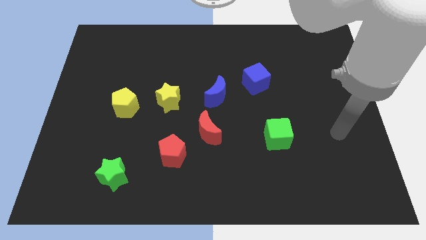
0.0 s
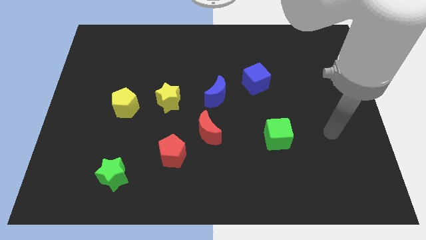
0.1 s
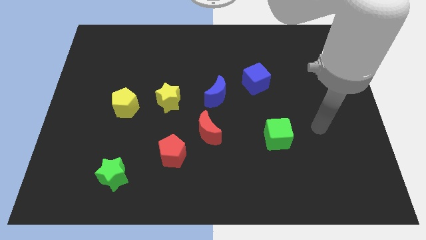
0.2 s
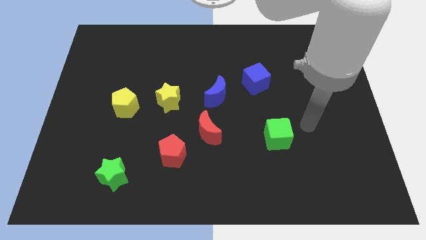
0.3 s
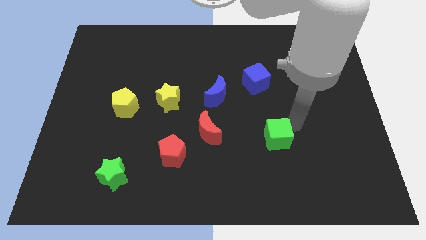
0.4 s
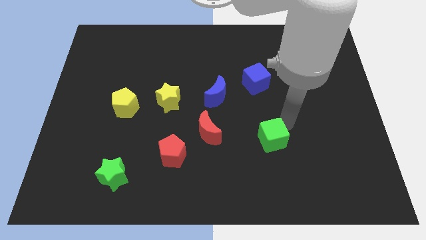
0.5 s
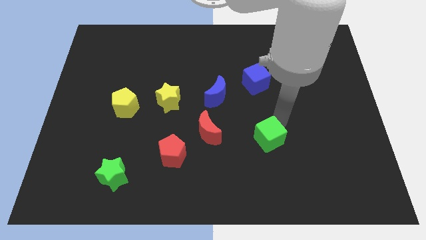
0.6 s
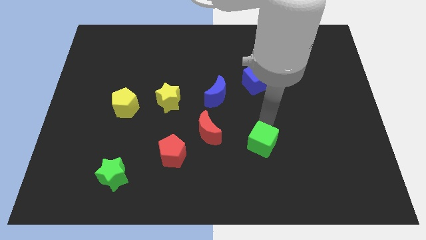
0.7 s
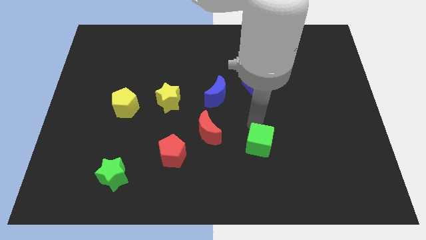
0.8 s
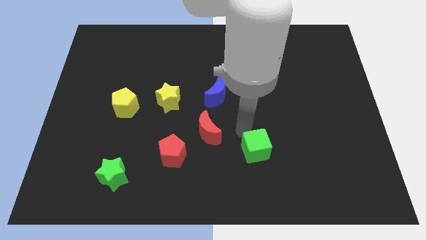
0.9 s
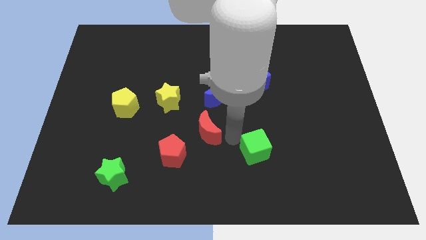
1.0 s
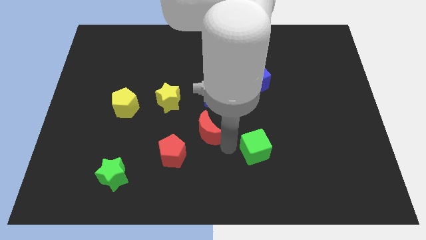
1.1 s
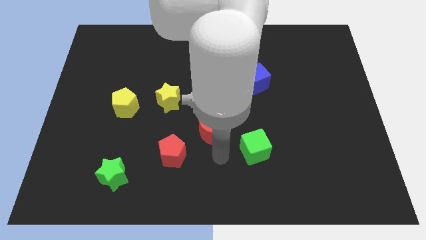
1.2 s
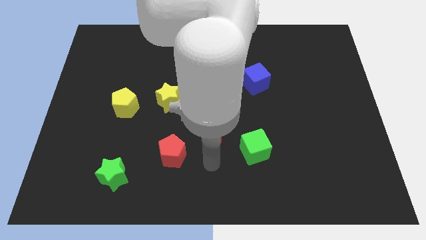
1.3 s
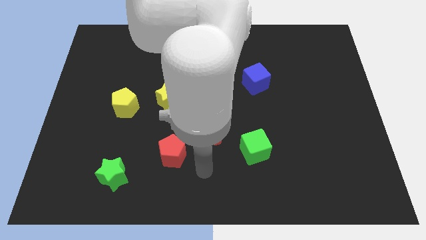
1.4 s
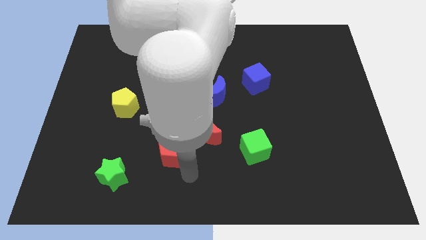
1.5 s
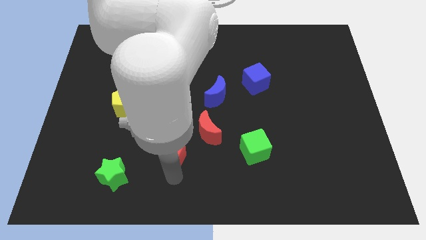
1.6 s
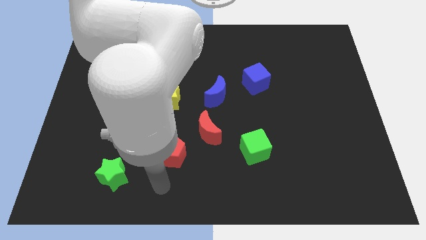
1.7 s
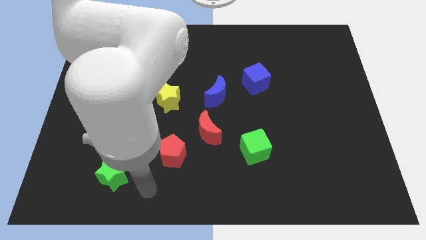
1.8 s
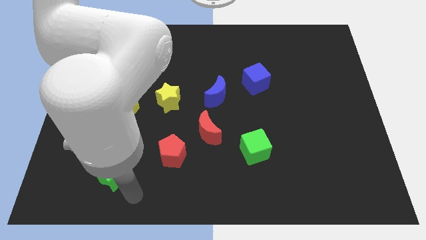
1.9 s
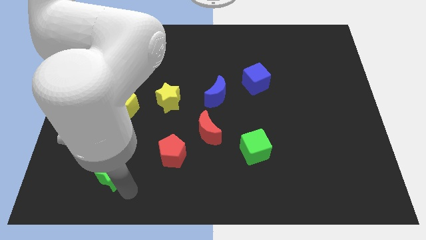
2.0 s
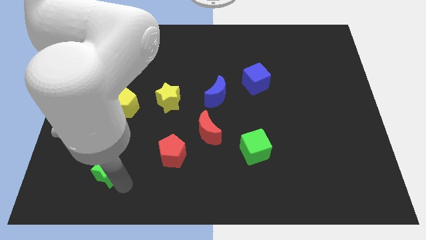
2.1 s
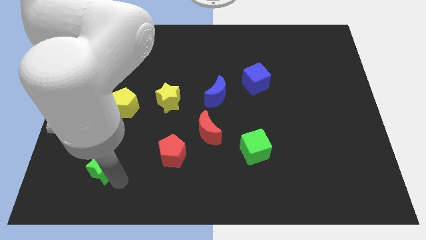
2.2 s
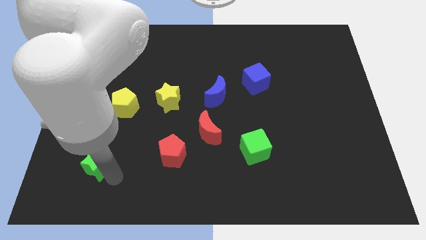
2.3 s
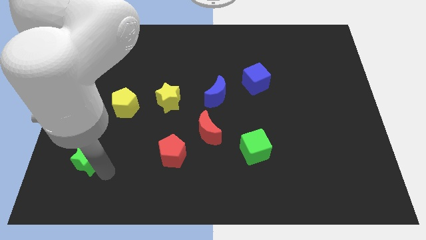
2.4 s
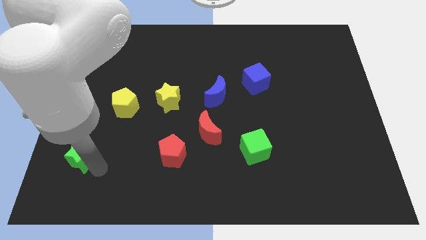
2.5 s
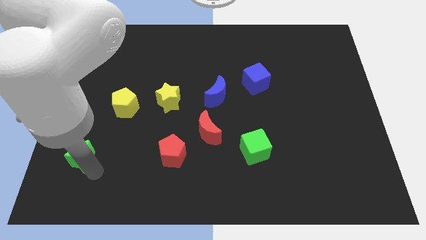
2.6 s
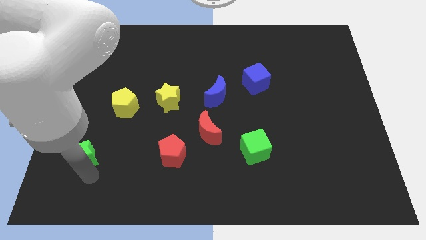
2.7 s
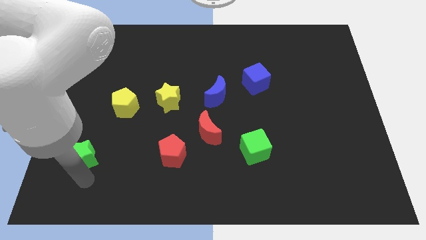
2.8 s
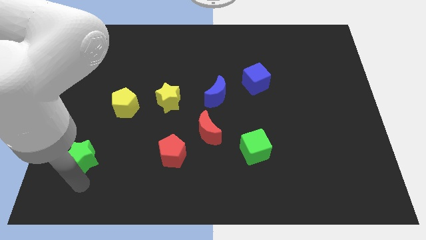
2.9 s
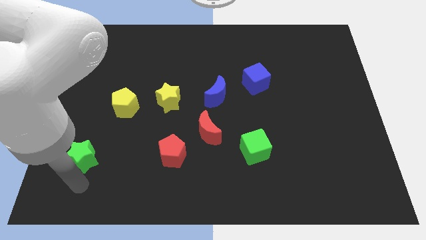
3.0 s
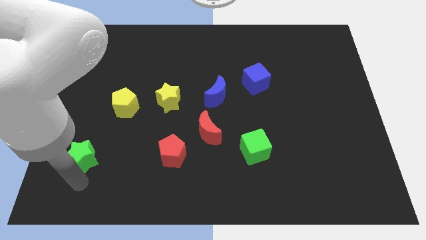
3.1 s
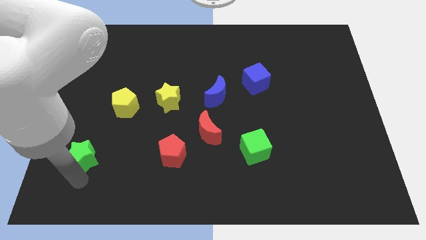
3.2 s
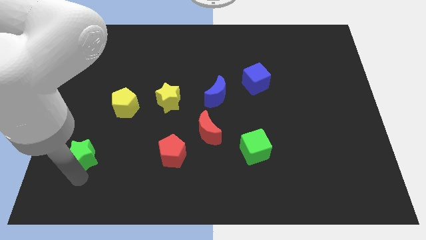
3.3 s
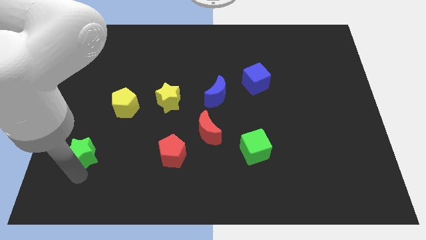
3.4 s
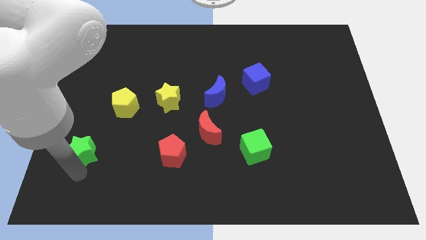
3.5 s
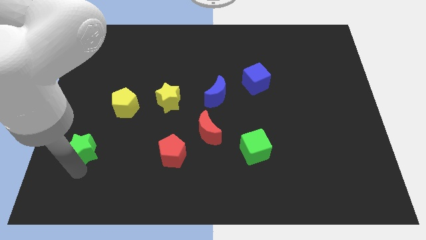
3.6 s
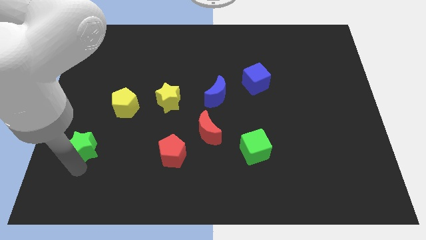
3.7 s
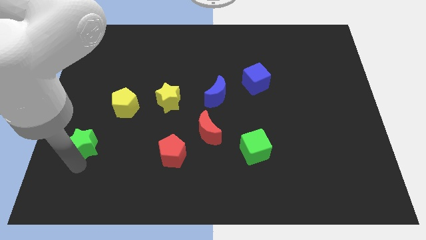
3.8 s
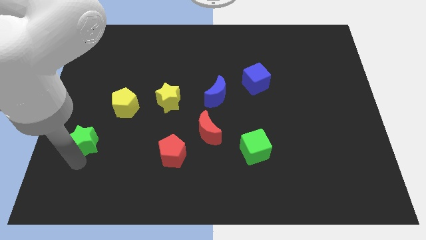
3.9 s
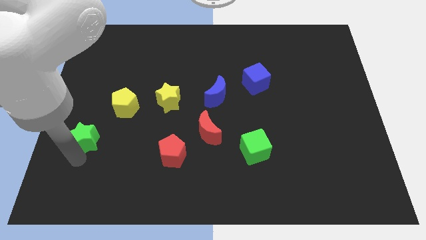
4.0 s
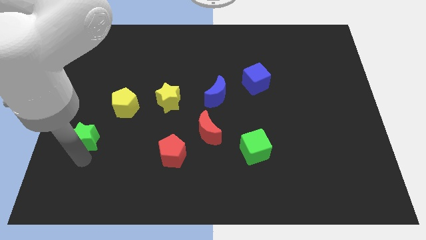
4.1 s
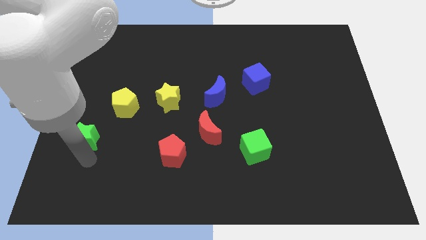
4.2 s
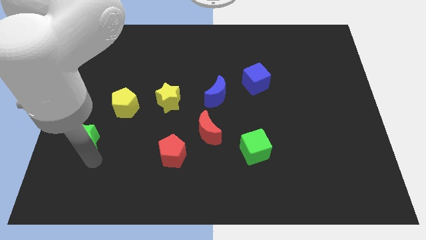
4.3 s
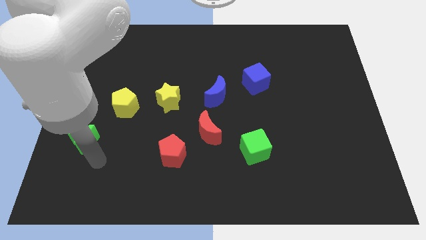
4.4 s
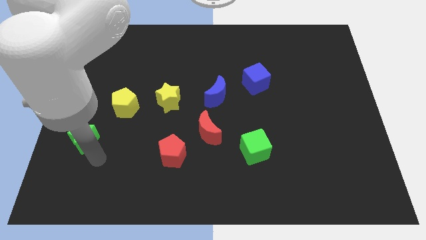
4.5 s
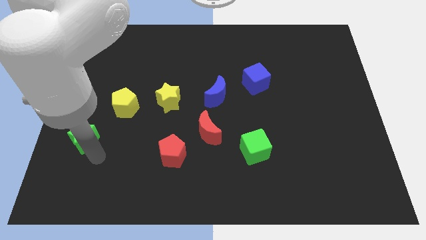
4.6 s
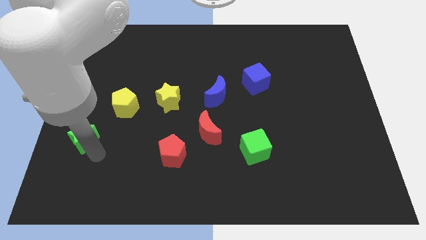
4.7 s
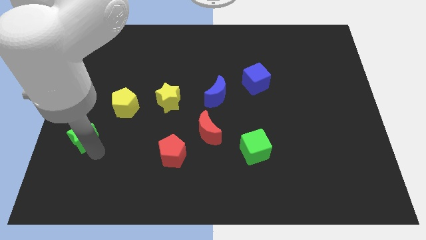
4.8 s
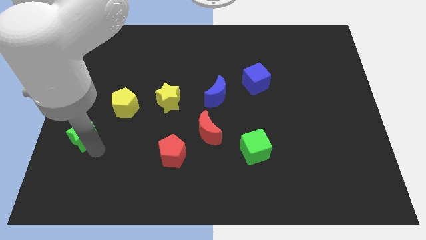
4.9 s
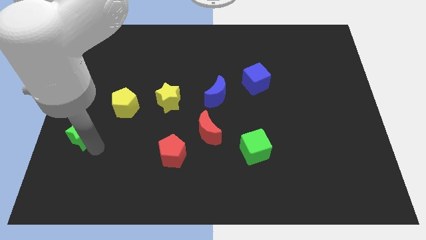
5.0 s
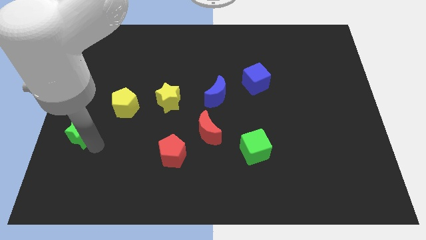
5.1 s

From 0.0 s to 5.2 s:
move the green star to the left side of the board

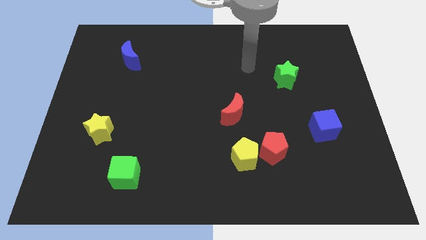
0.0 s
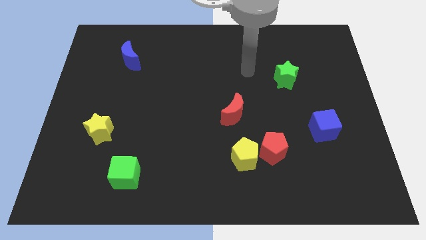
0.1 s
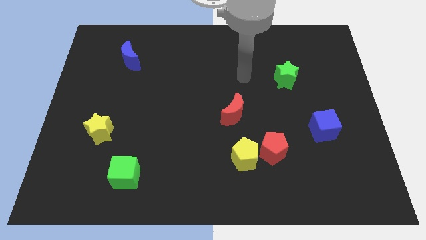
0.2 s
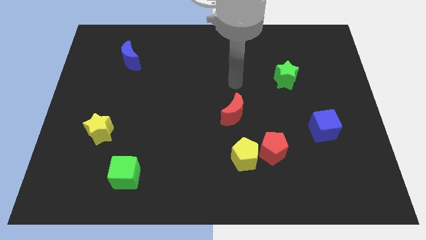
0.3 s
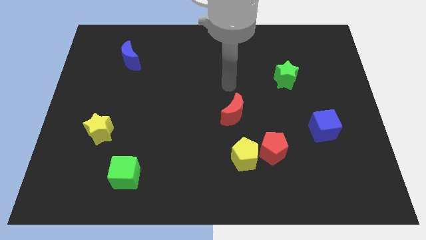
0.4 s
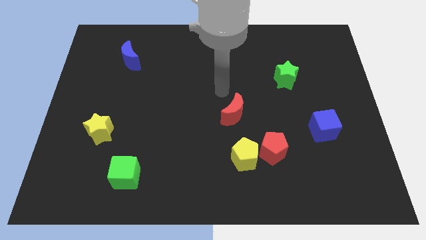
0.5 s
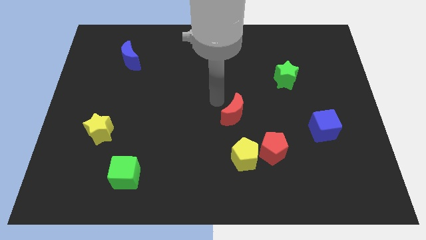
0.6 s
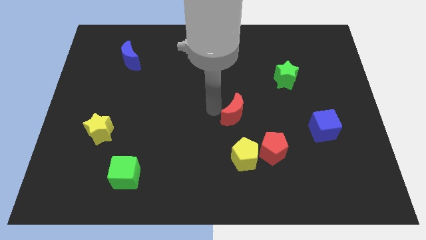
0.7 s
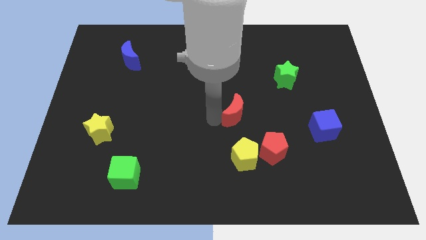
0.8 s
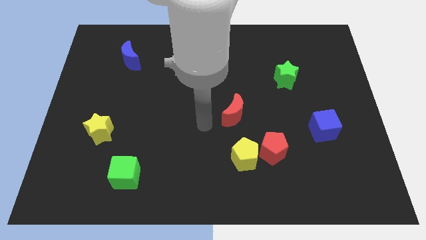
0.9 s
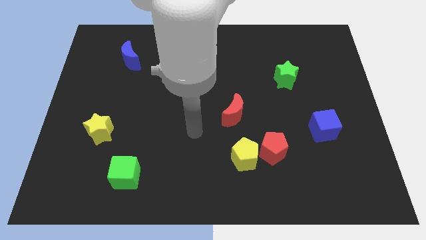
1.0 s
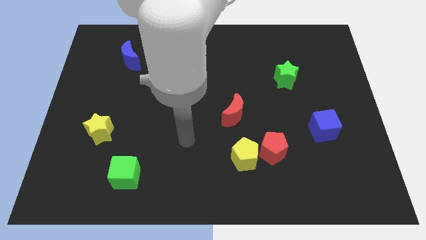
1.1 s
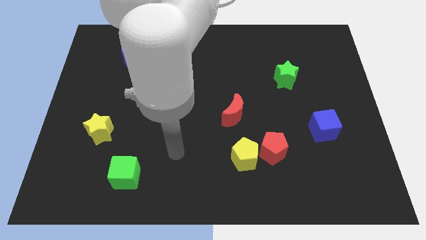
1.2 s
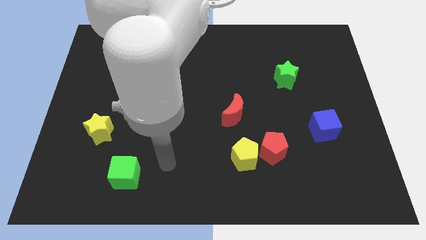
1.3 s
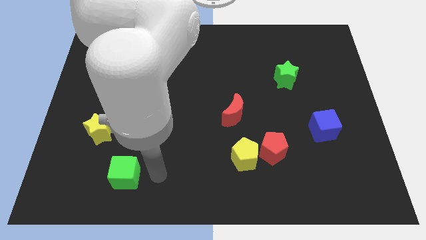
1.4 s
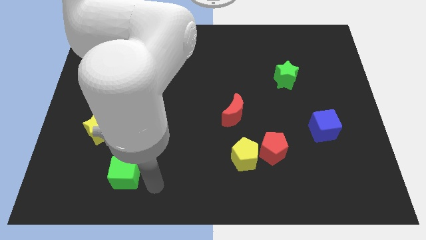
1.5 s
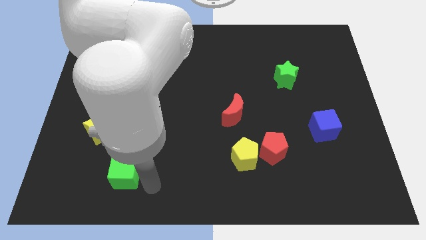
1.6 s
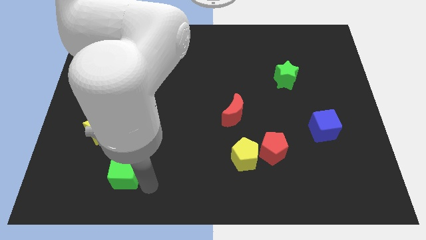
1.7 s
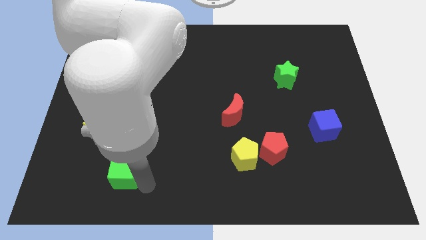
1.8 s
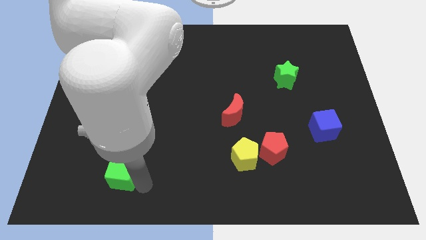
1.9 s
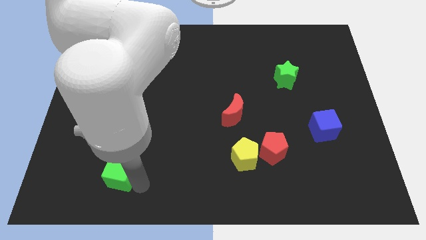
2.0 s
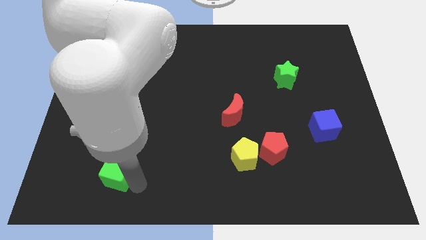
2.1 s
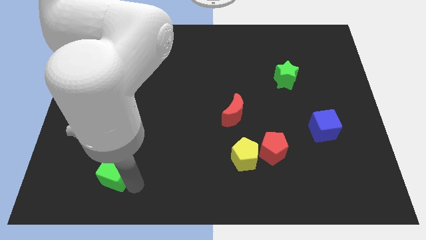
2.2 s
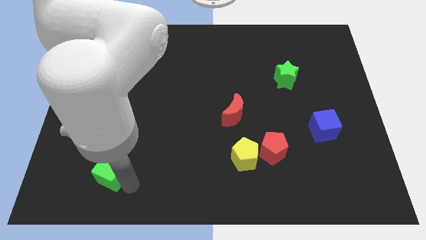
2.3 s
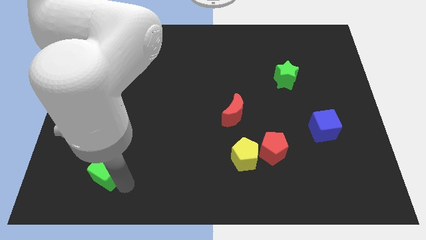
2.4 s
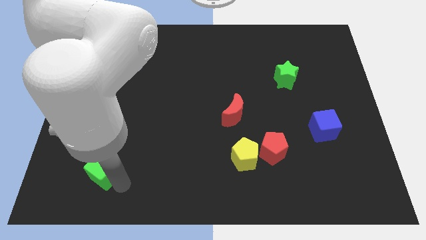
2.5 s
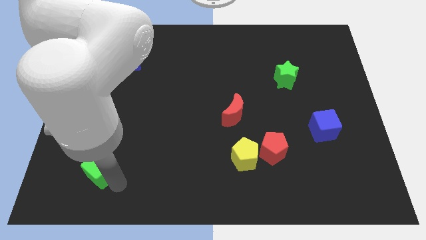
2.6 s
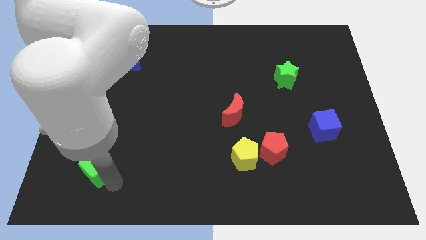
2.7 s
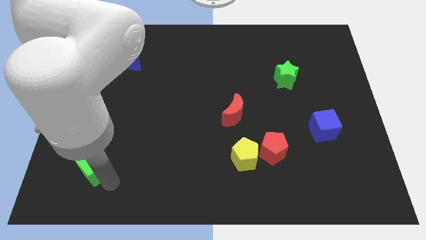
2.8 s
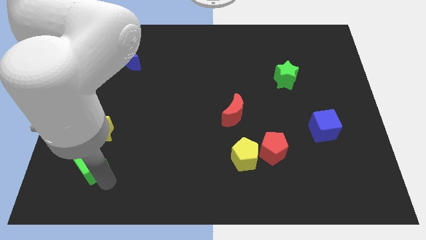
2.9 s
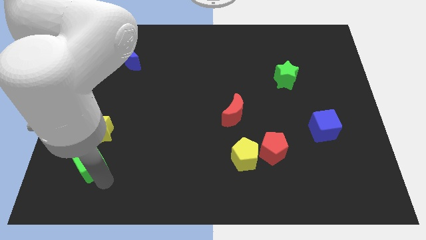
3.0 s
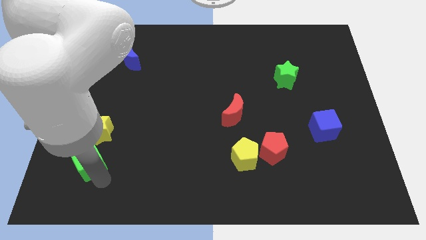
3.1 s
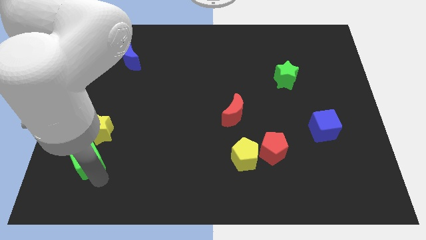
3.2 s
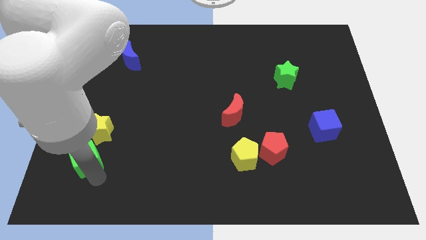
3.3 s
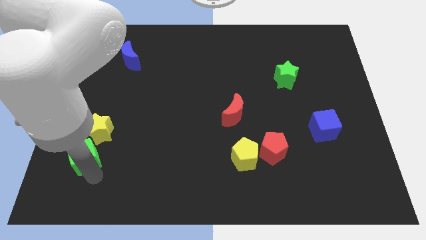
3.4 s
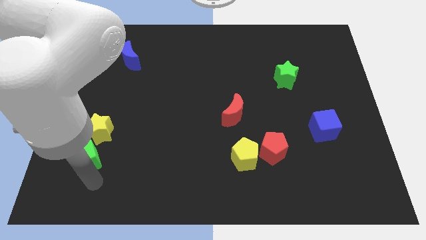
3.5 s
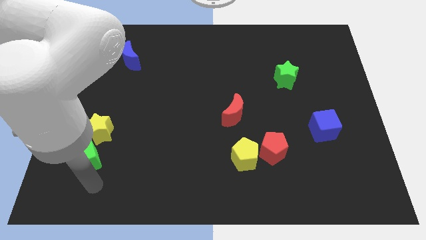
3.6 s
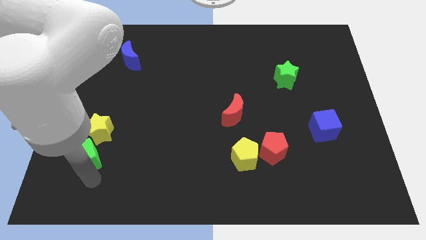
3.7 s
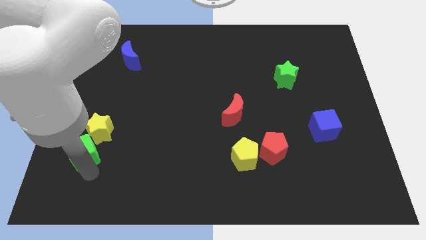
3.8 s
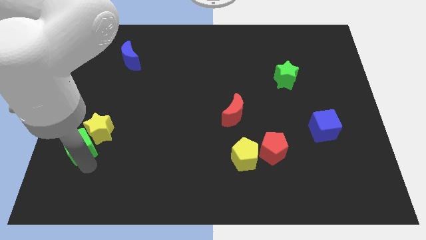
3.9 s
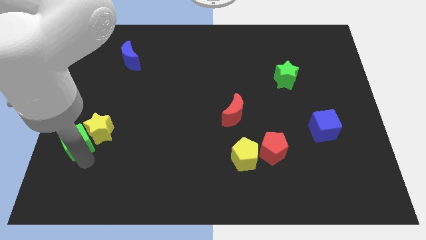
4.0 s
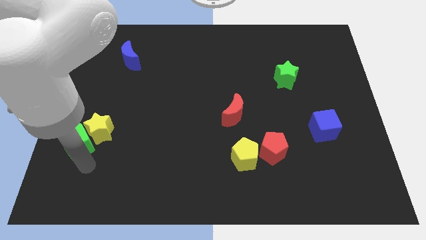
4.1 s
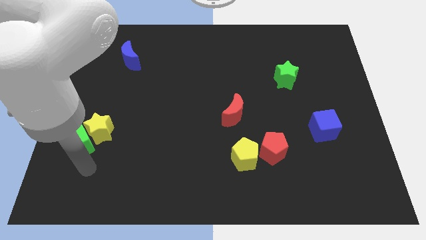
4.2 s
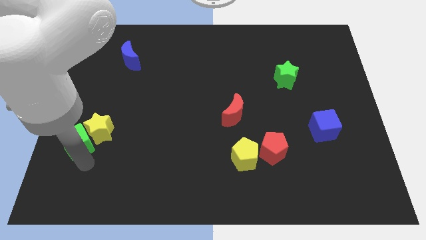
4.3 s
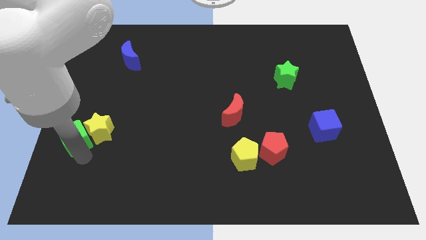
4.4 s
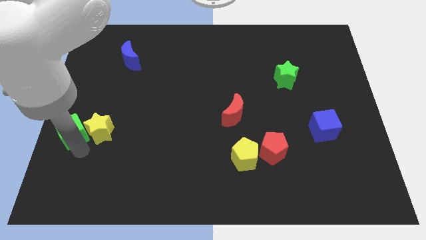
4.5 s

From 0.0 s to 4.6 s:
put the green cube to the left side of the board
